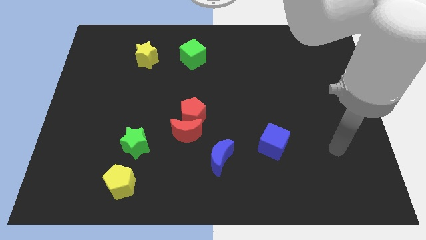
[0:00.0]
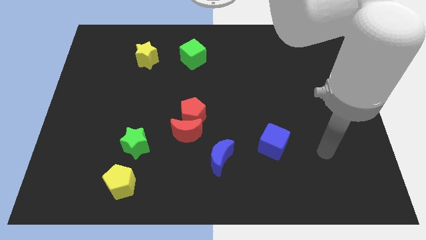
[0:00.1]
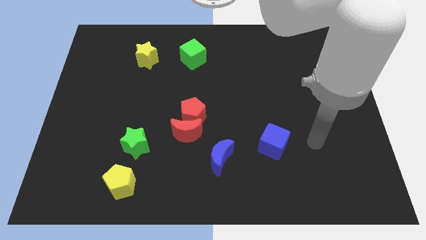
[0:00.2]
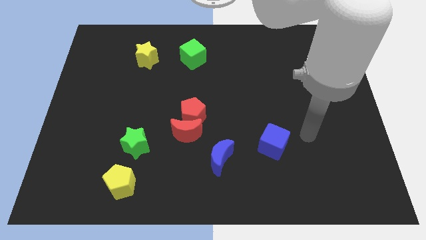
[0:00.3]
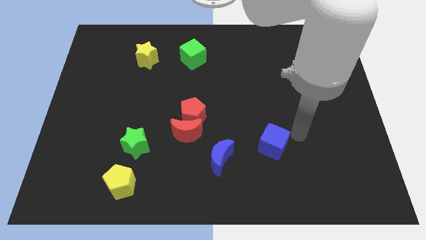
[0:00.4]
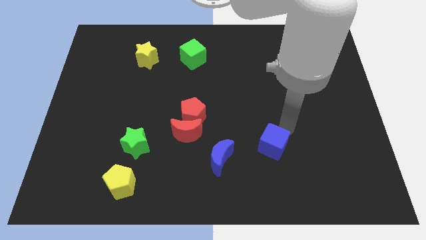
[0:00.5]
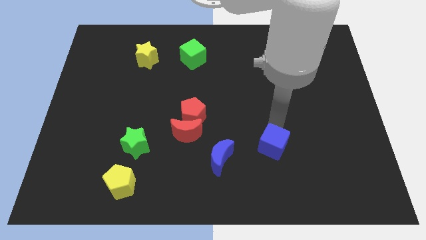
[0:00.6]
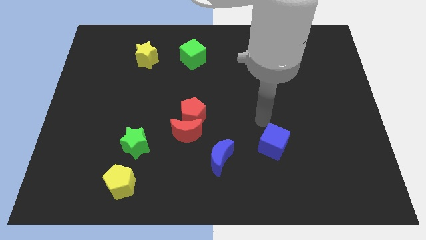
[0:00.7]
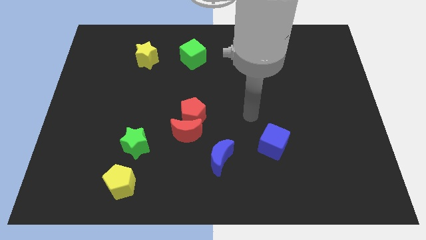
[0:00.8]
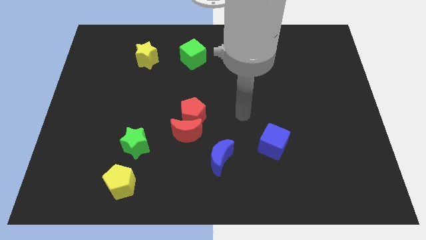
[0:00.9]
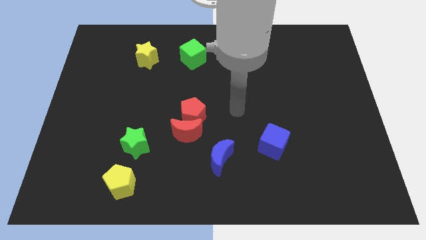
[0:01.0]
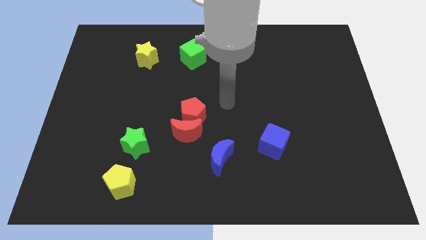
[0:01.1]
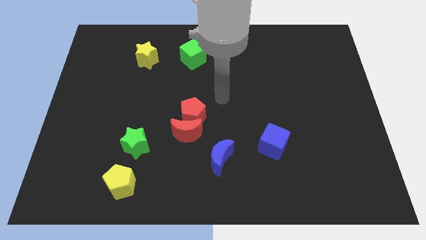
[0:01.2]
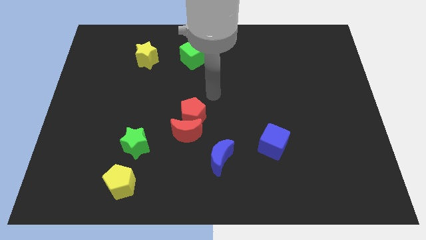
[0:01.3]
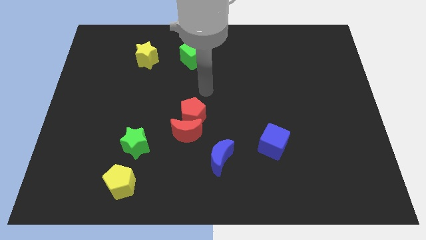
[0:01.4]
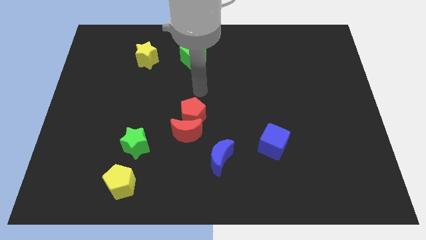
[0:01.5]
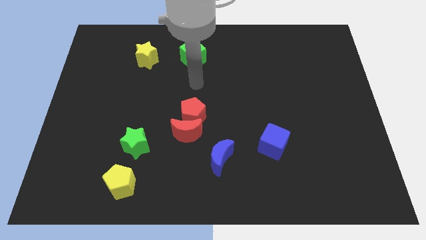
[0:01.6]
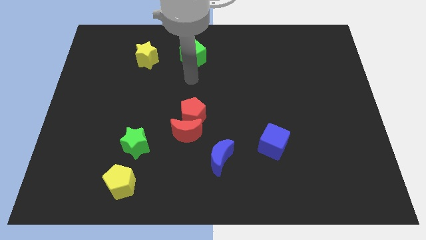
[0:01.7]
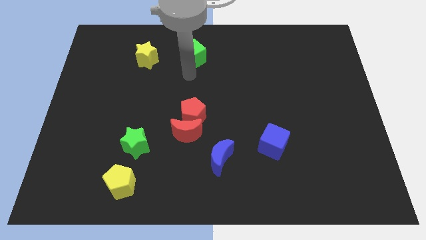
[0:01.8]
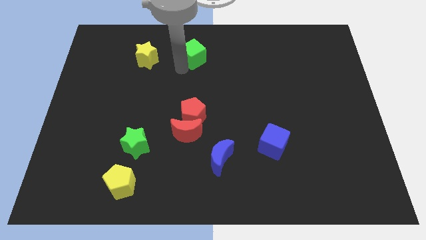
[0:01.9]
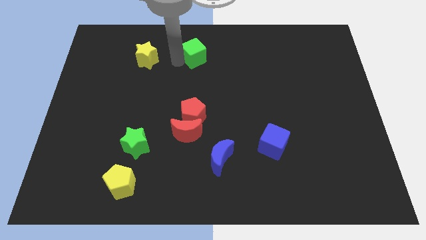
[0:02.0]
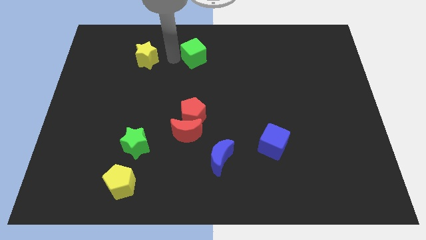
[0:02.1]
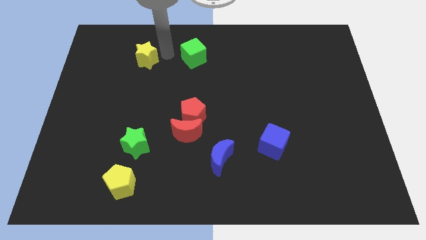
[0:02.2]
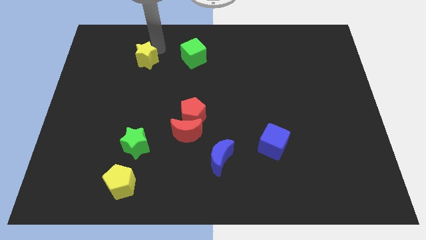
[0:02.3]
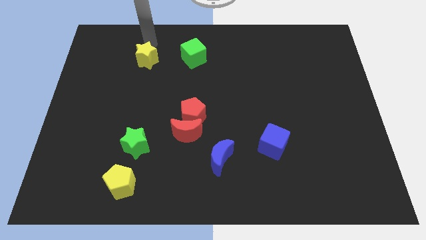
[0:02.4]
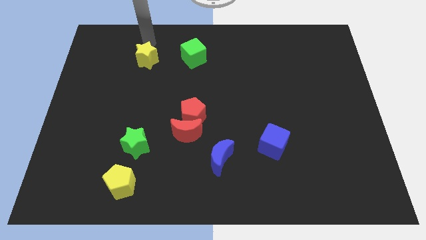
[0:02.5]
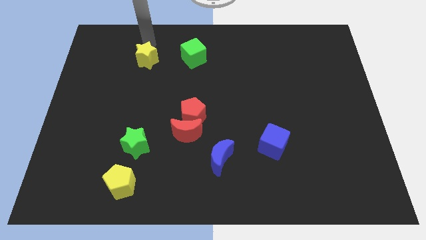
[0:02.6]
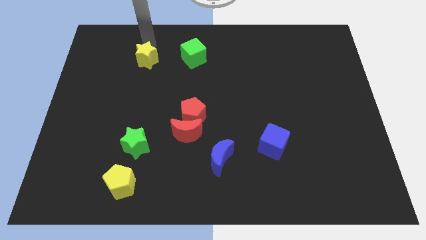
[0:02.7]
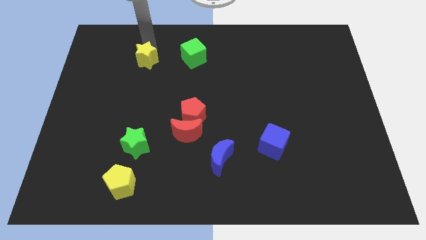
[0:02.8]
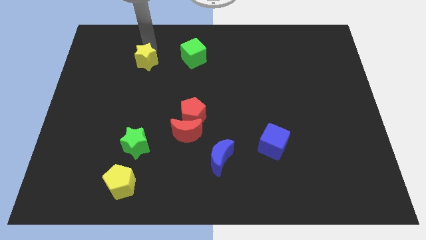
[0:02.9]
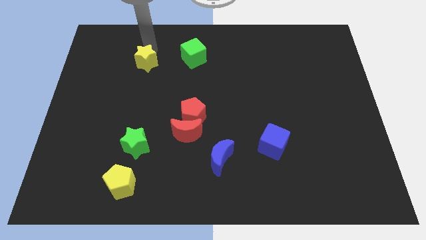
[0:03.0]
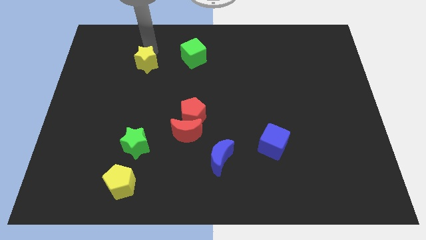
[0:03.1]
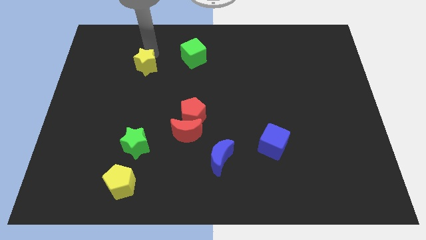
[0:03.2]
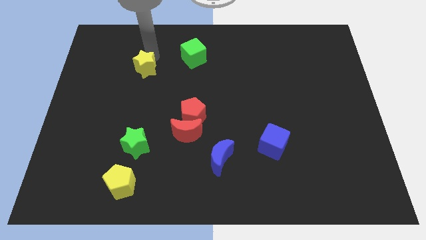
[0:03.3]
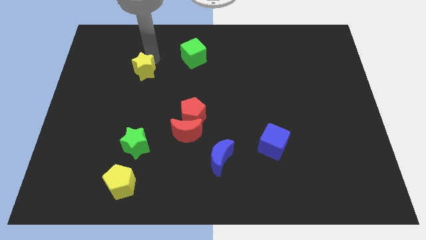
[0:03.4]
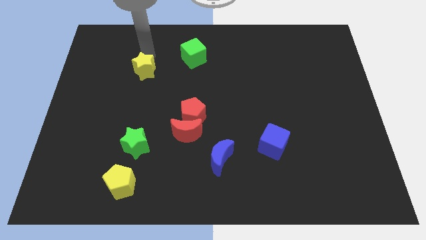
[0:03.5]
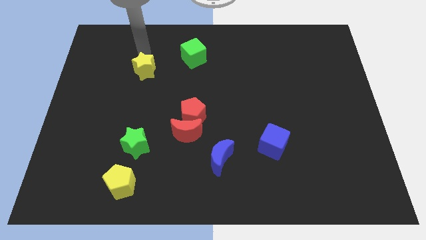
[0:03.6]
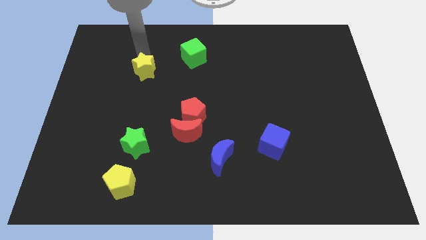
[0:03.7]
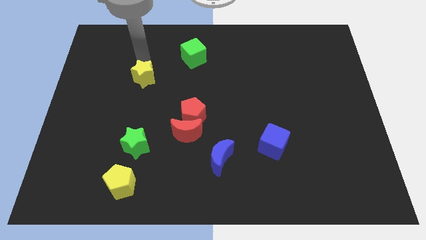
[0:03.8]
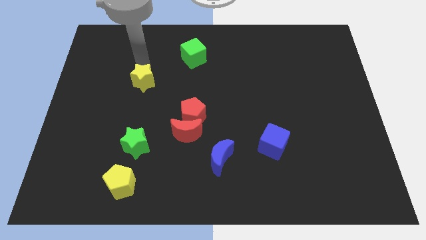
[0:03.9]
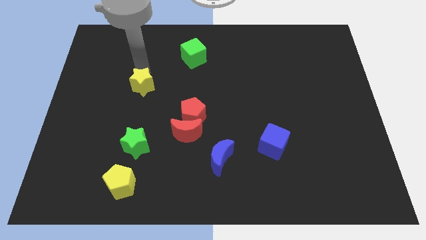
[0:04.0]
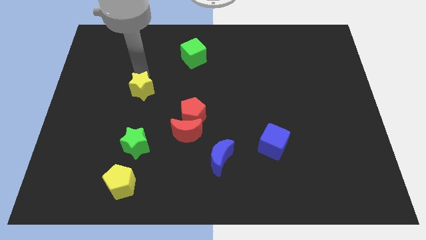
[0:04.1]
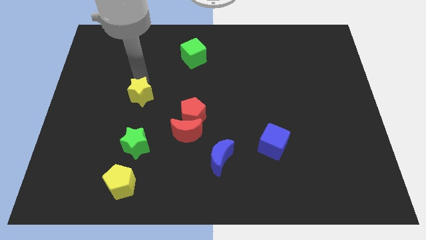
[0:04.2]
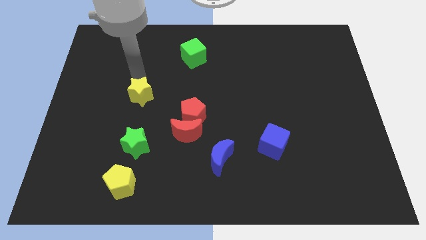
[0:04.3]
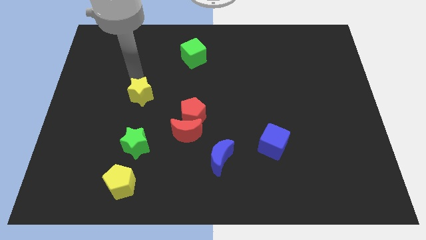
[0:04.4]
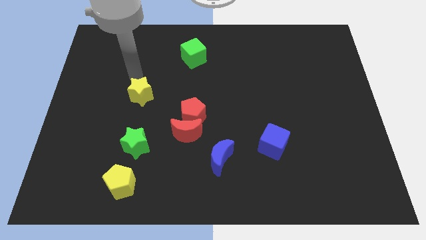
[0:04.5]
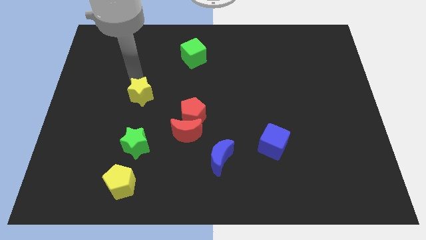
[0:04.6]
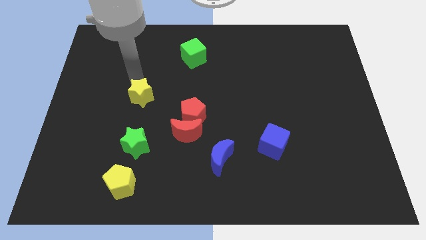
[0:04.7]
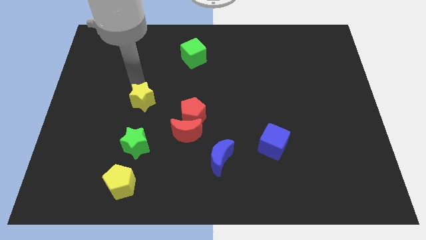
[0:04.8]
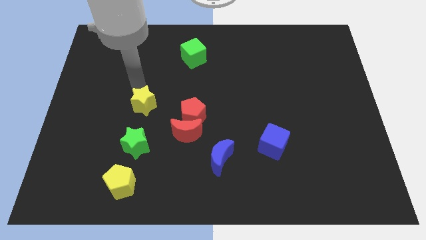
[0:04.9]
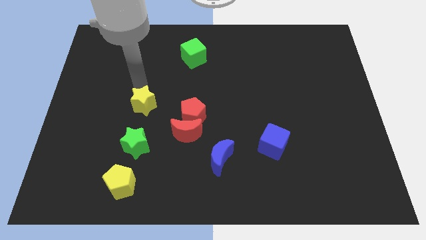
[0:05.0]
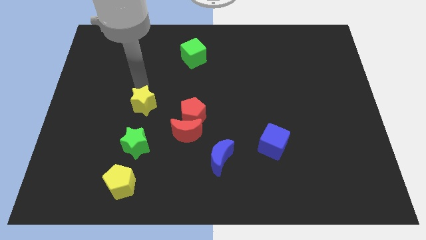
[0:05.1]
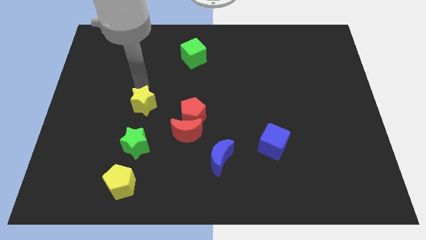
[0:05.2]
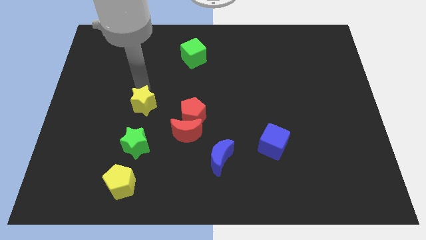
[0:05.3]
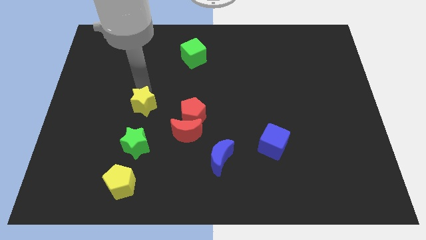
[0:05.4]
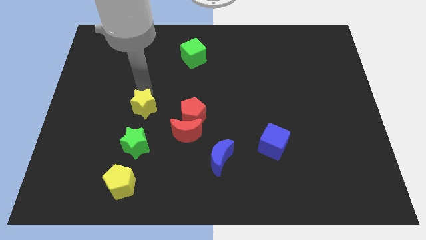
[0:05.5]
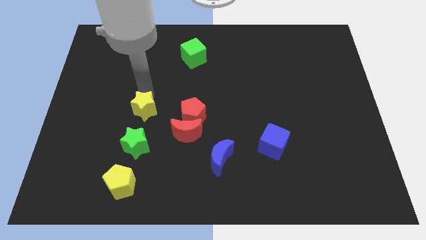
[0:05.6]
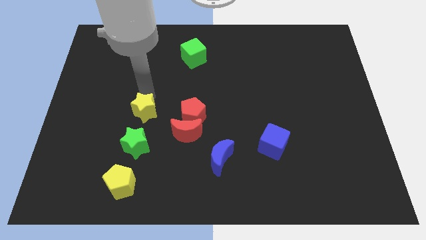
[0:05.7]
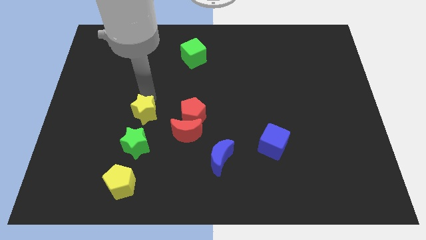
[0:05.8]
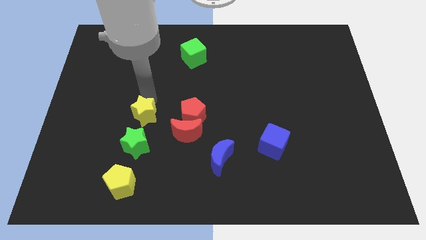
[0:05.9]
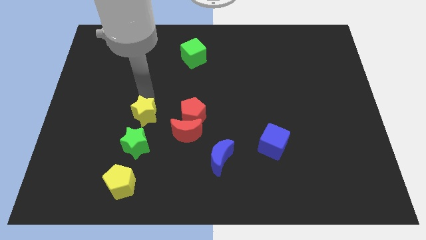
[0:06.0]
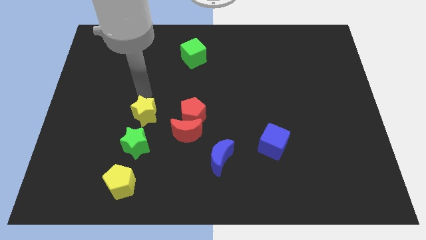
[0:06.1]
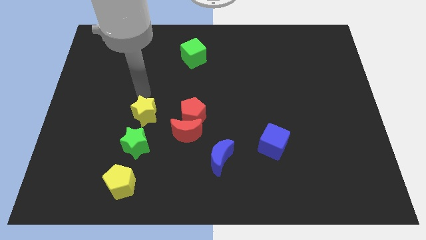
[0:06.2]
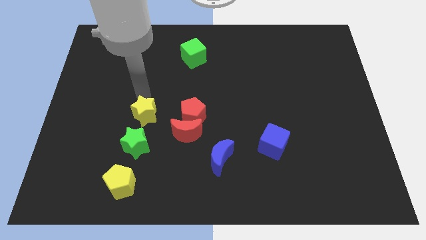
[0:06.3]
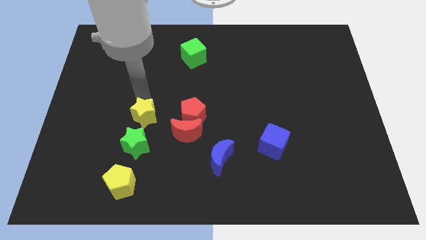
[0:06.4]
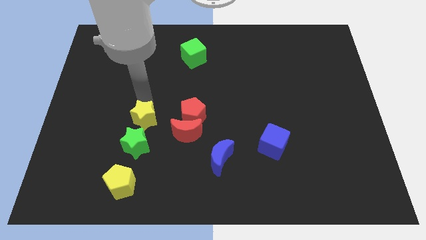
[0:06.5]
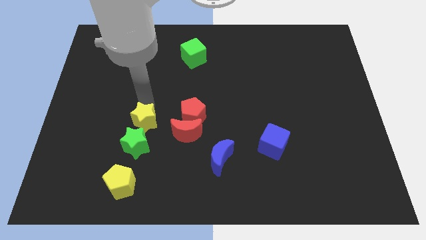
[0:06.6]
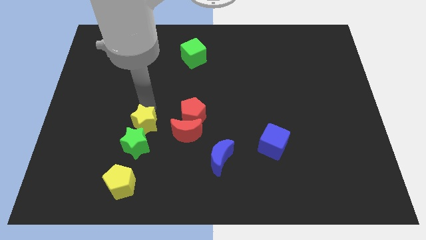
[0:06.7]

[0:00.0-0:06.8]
move the yellow star to the green star
